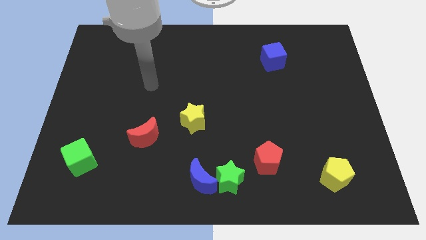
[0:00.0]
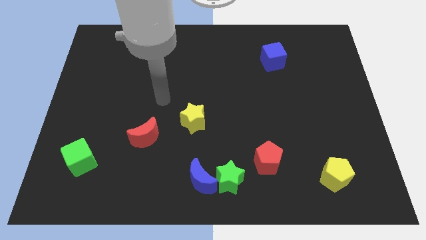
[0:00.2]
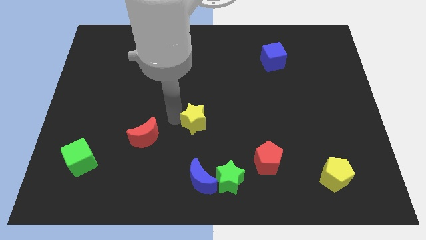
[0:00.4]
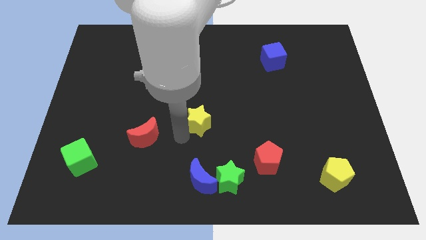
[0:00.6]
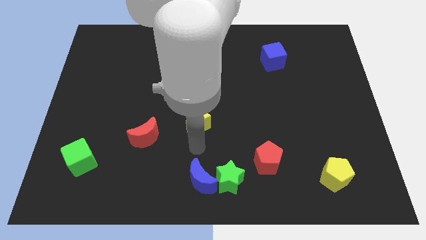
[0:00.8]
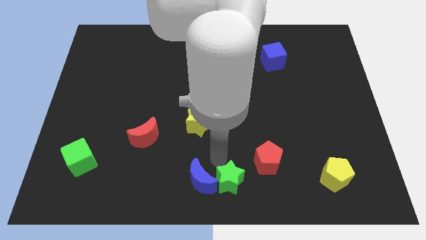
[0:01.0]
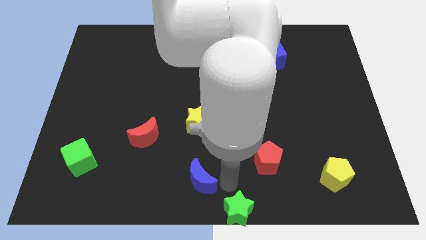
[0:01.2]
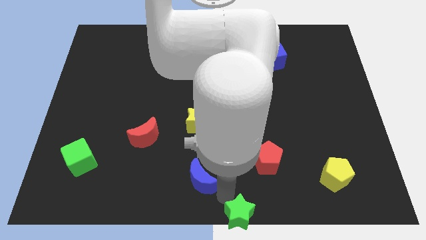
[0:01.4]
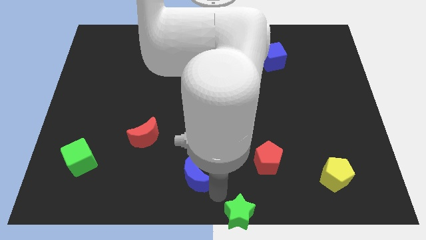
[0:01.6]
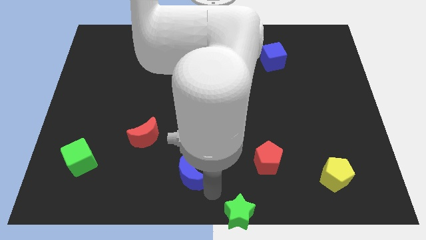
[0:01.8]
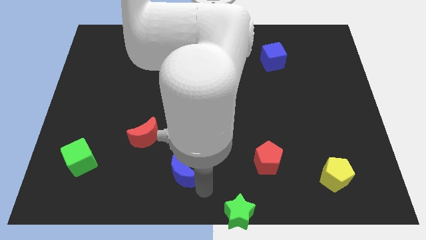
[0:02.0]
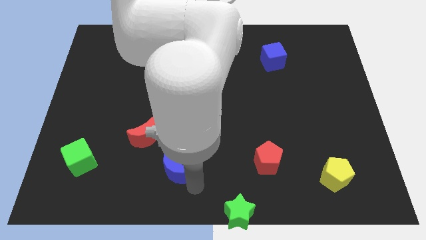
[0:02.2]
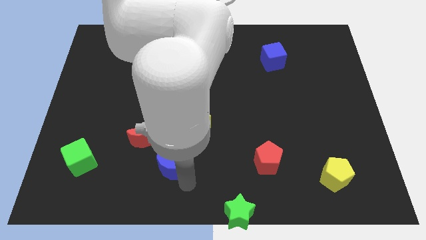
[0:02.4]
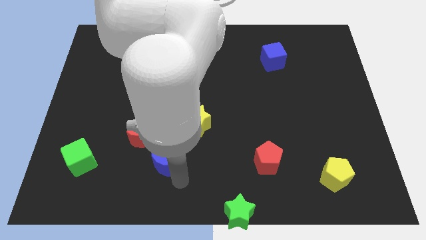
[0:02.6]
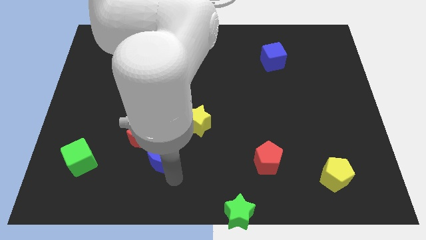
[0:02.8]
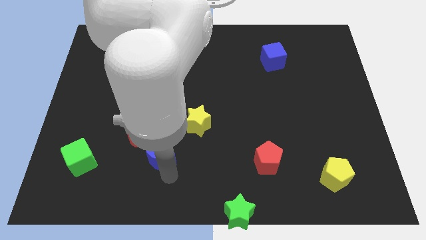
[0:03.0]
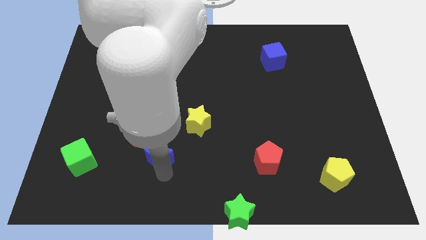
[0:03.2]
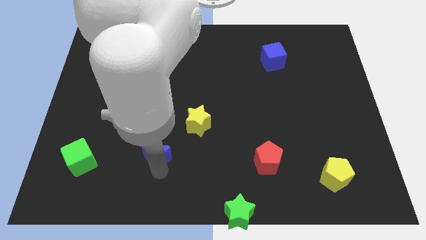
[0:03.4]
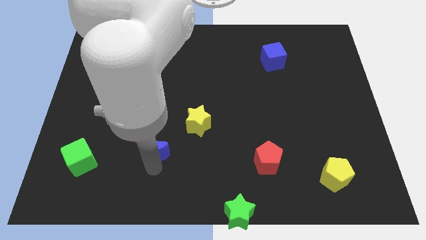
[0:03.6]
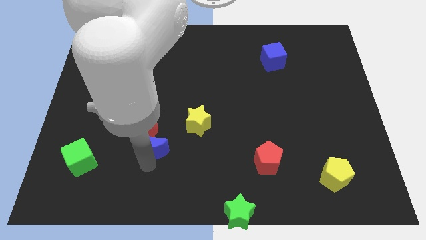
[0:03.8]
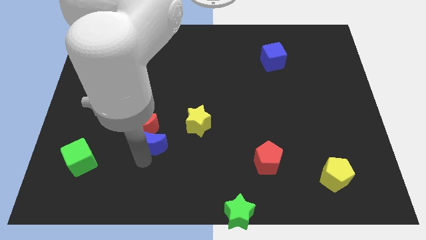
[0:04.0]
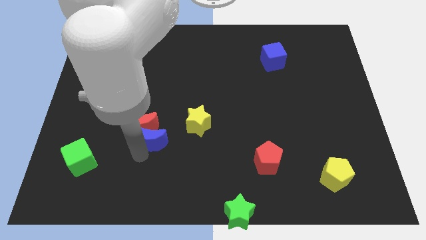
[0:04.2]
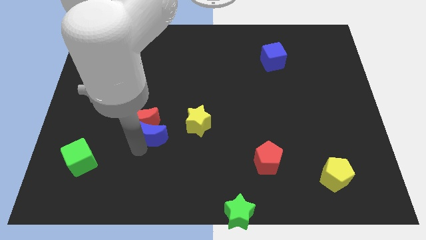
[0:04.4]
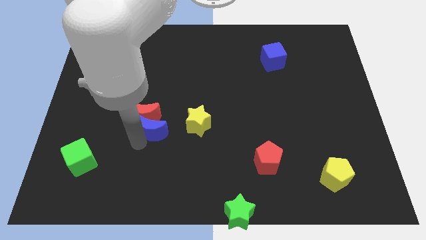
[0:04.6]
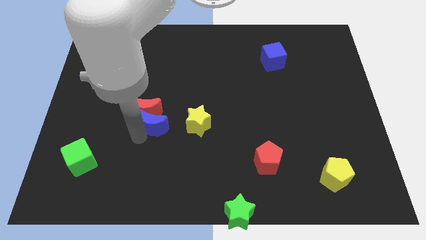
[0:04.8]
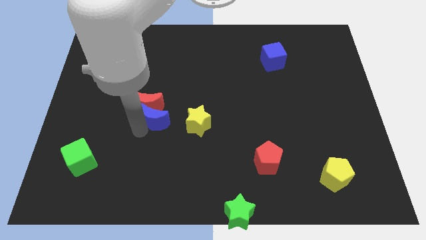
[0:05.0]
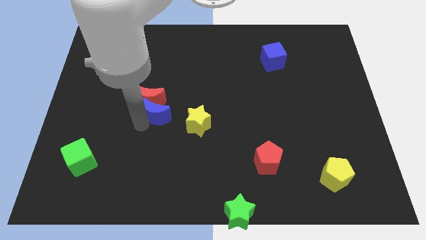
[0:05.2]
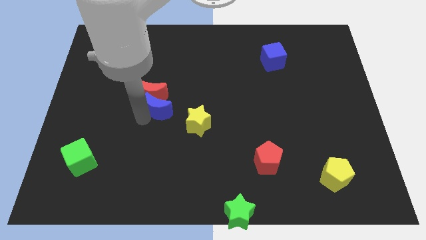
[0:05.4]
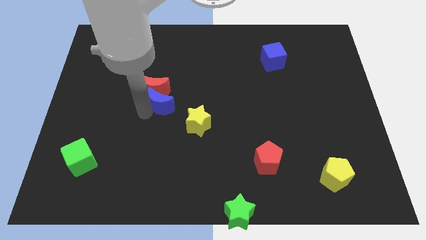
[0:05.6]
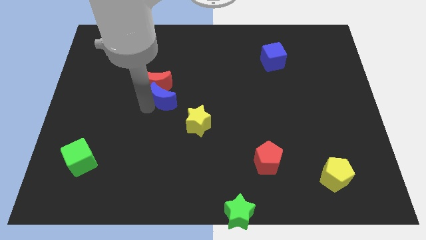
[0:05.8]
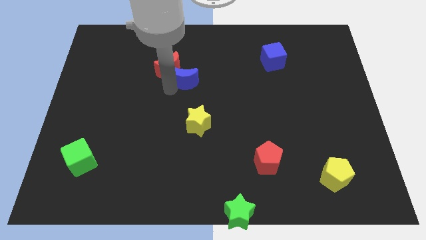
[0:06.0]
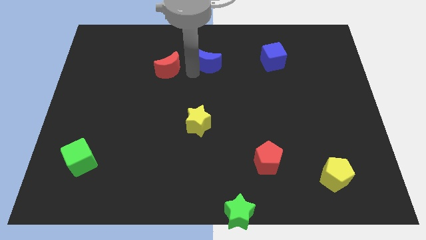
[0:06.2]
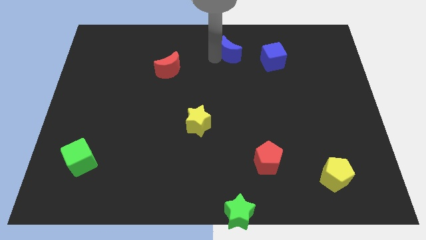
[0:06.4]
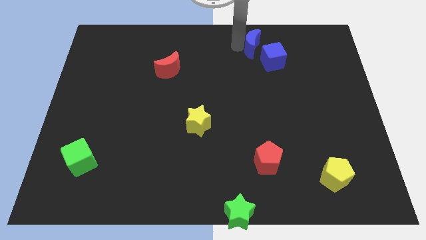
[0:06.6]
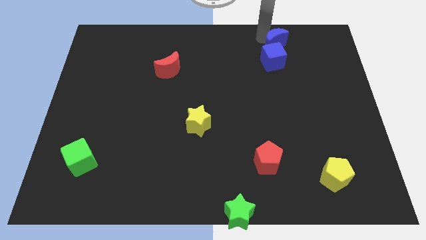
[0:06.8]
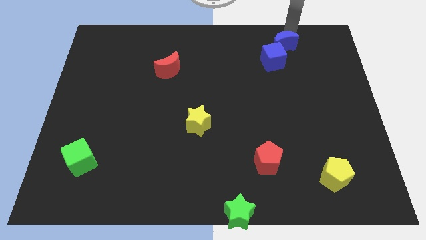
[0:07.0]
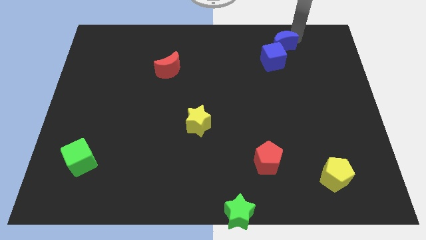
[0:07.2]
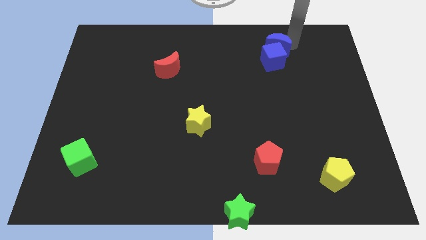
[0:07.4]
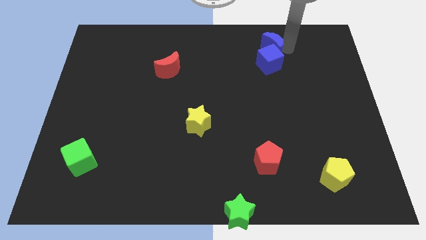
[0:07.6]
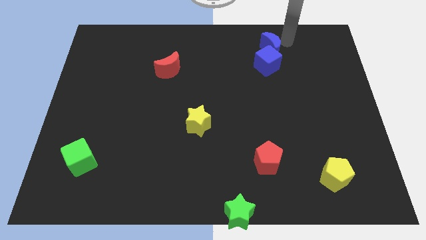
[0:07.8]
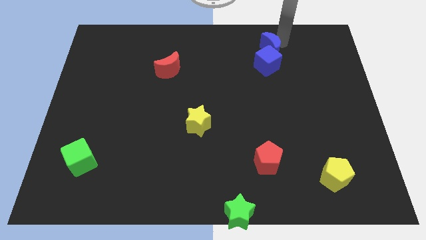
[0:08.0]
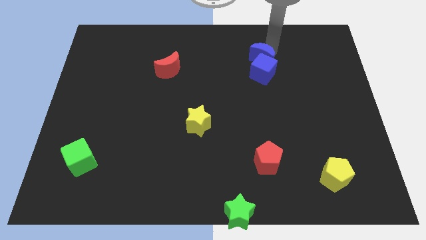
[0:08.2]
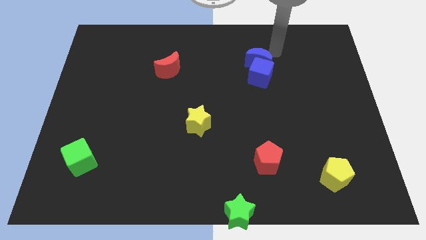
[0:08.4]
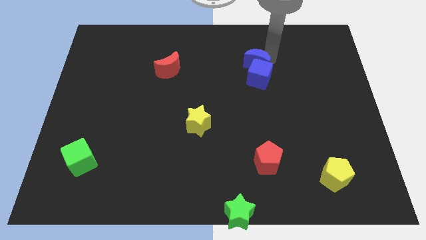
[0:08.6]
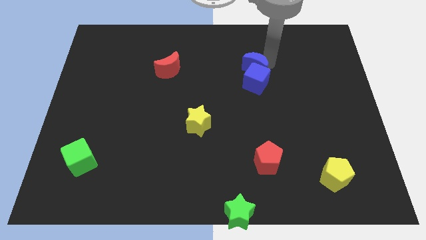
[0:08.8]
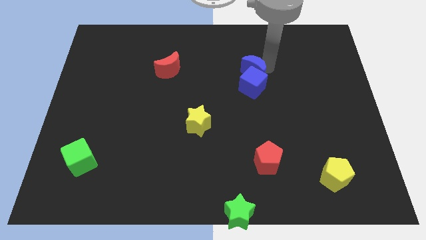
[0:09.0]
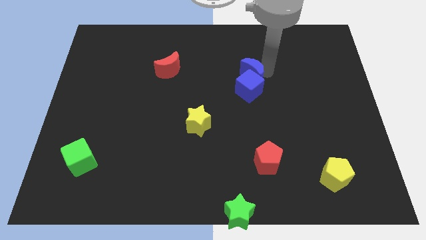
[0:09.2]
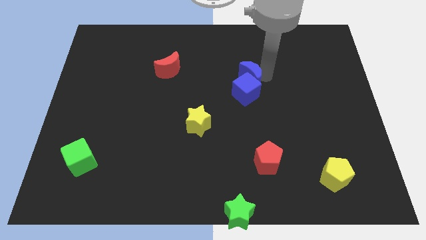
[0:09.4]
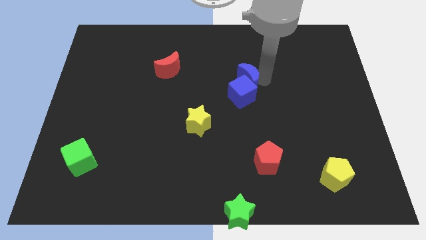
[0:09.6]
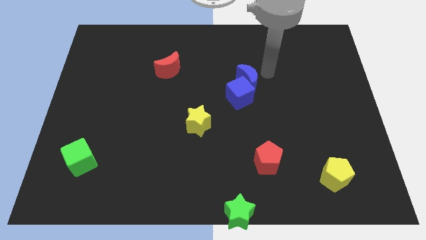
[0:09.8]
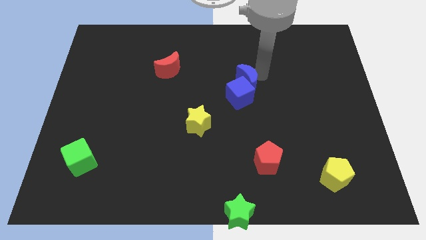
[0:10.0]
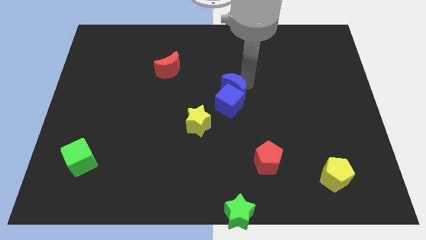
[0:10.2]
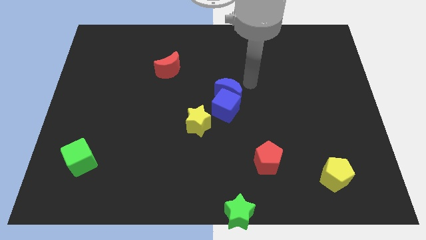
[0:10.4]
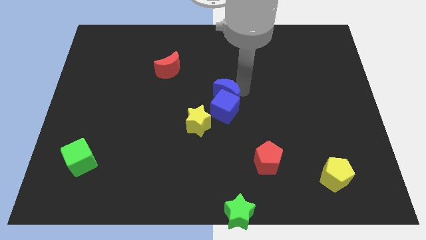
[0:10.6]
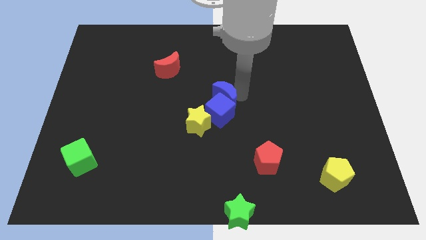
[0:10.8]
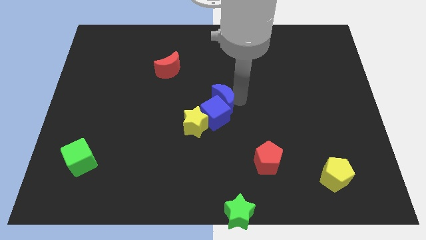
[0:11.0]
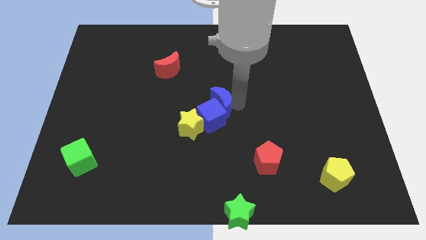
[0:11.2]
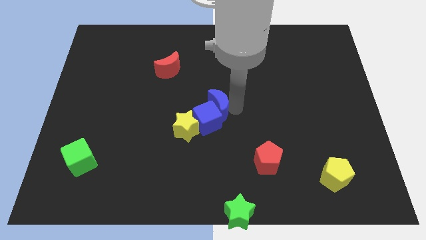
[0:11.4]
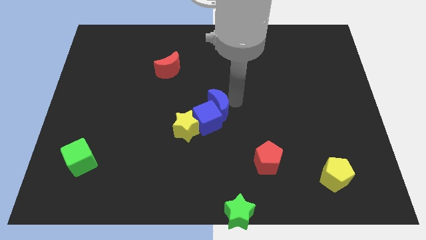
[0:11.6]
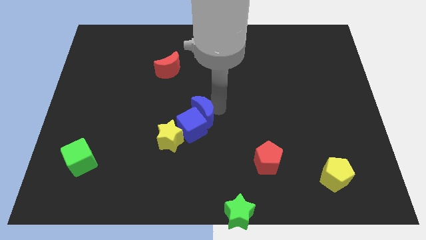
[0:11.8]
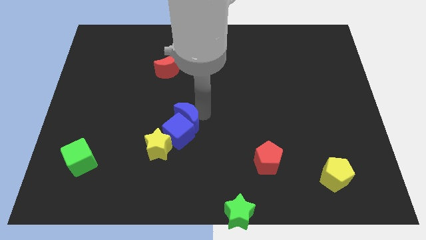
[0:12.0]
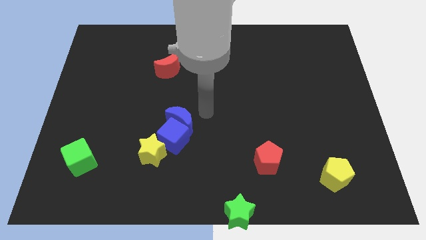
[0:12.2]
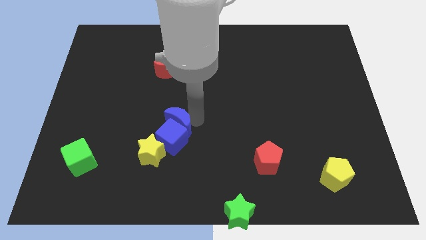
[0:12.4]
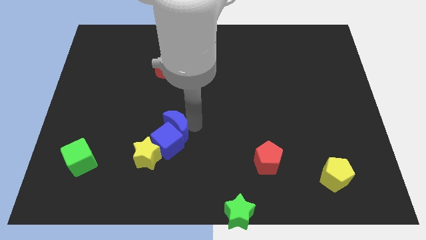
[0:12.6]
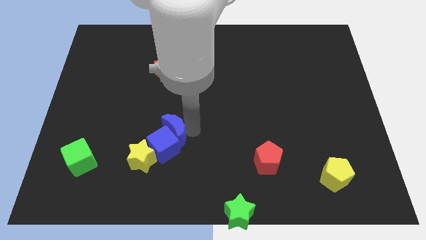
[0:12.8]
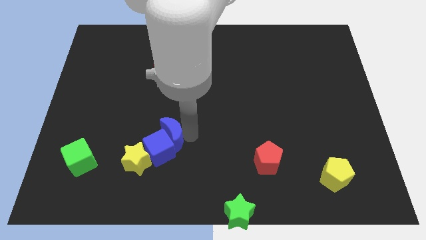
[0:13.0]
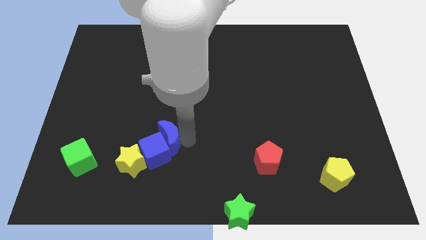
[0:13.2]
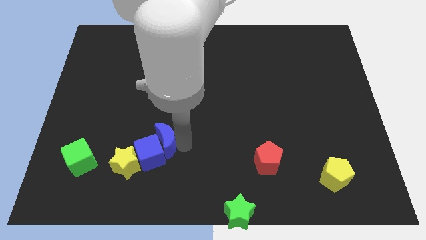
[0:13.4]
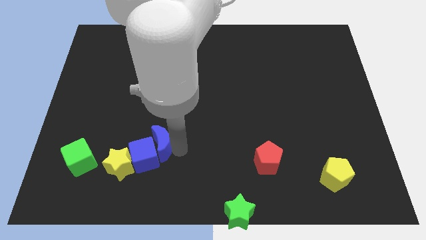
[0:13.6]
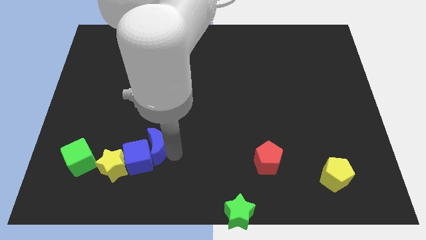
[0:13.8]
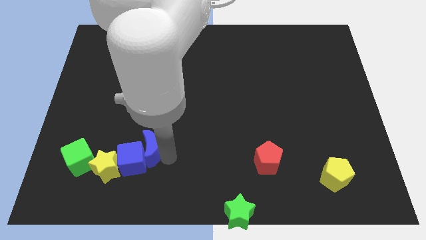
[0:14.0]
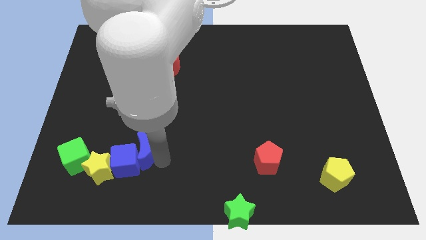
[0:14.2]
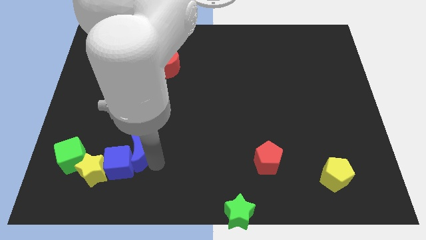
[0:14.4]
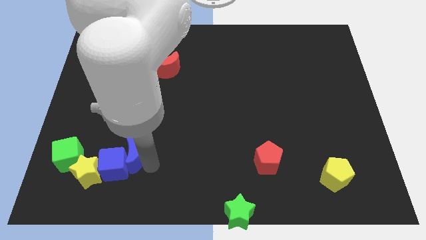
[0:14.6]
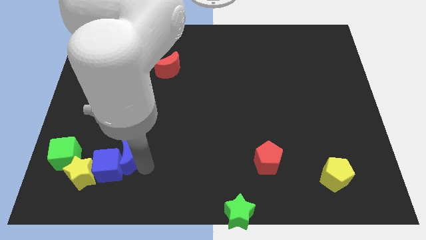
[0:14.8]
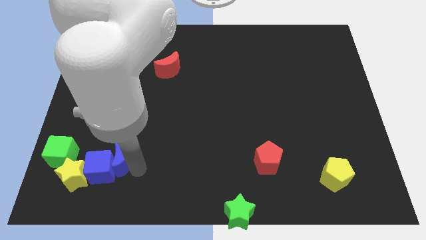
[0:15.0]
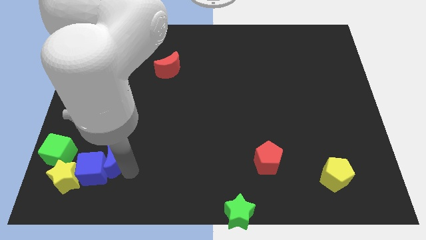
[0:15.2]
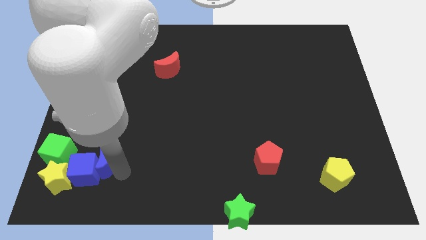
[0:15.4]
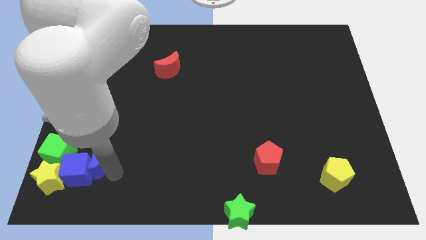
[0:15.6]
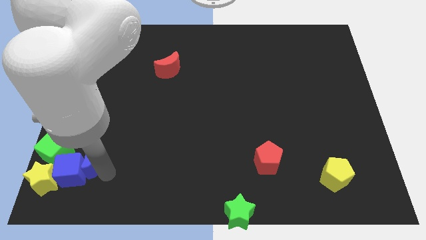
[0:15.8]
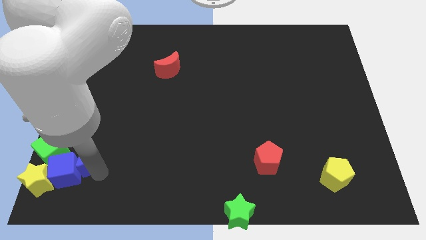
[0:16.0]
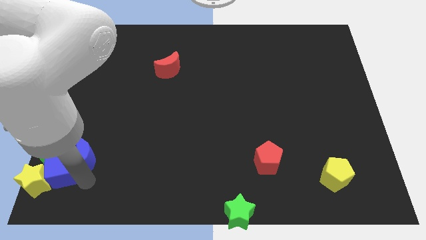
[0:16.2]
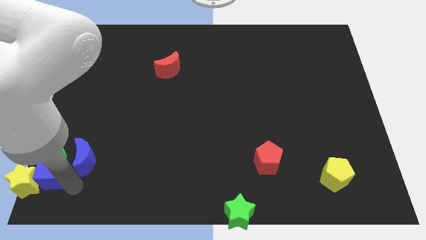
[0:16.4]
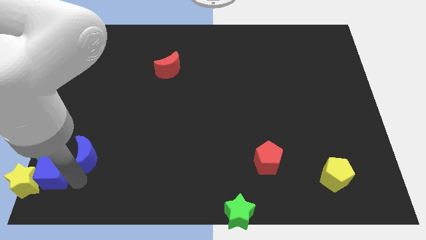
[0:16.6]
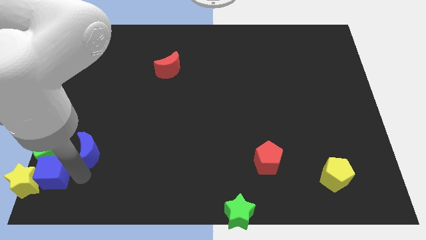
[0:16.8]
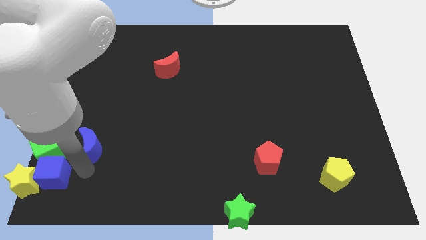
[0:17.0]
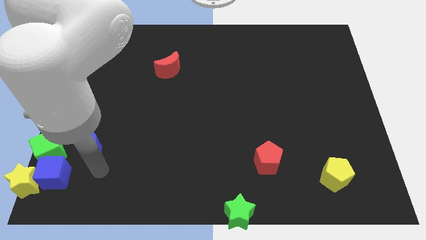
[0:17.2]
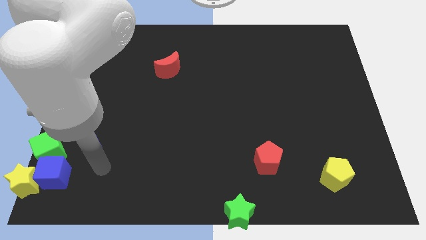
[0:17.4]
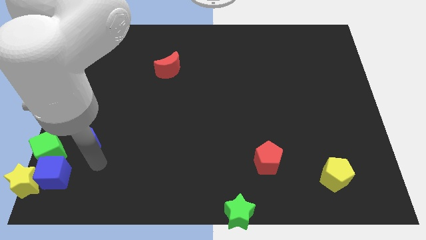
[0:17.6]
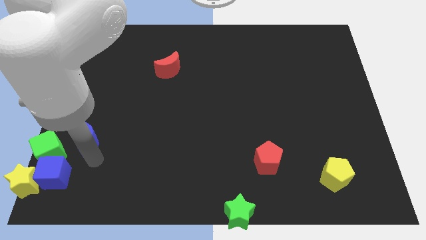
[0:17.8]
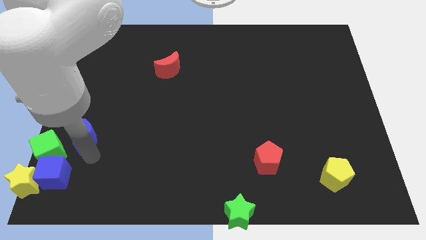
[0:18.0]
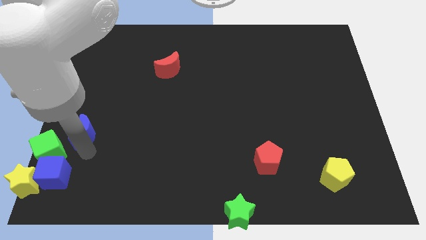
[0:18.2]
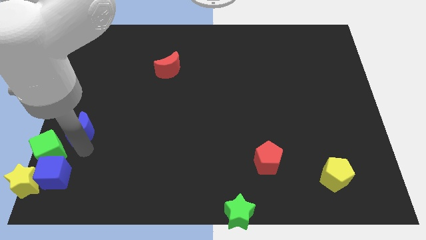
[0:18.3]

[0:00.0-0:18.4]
move the blue moon to the center left
